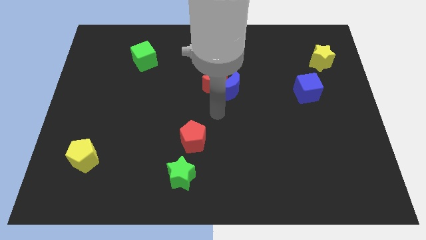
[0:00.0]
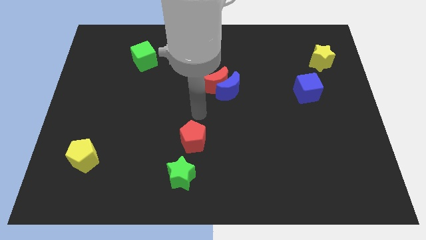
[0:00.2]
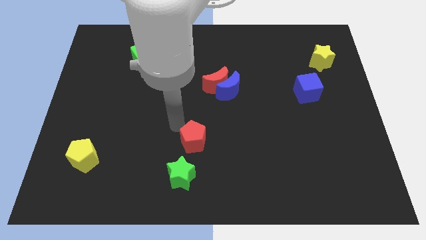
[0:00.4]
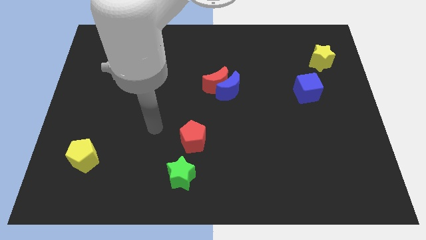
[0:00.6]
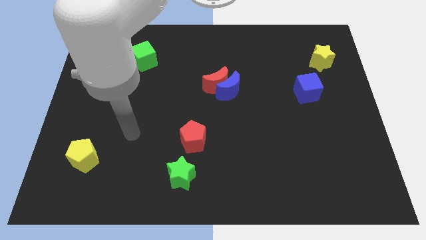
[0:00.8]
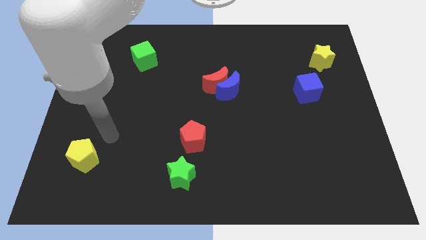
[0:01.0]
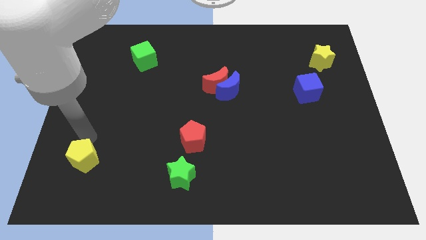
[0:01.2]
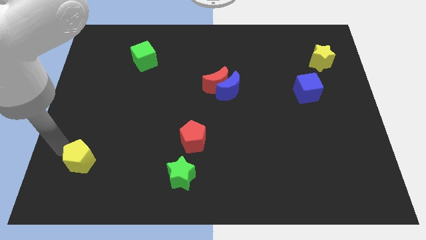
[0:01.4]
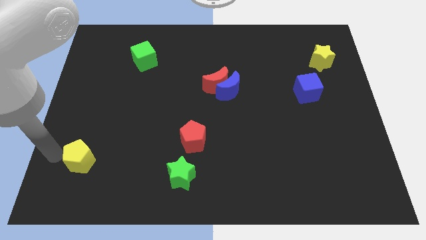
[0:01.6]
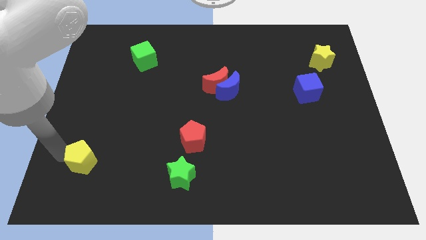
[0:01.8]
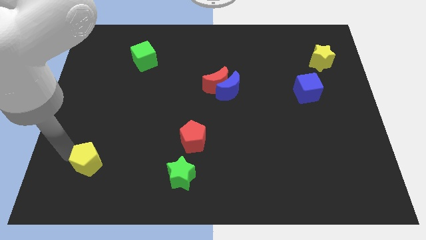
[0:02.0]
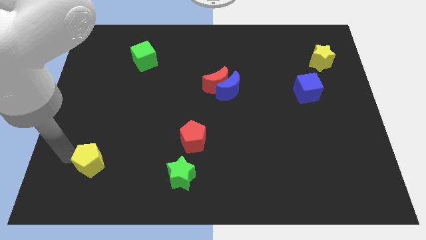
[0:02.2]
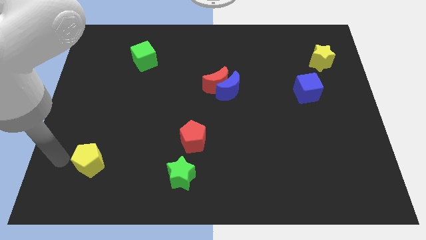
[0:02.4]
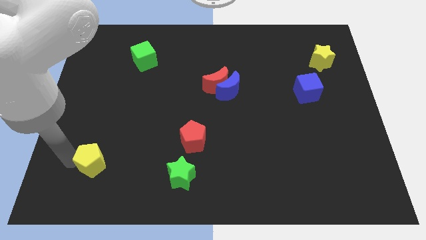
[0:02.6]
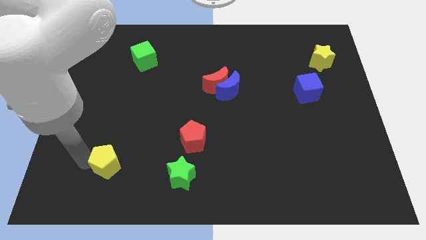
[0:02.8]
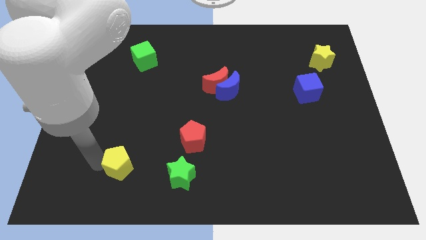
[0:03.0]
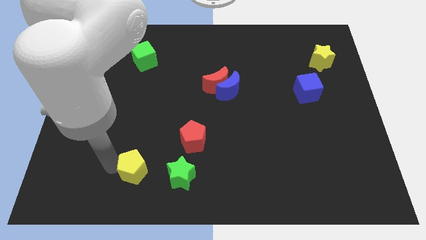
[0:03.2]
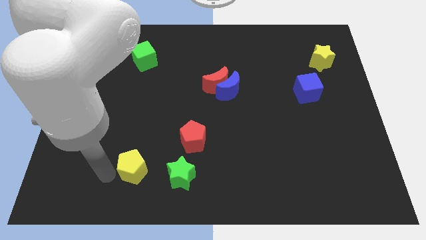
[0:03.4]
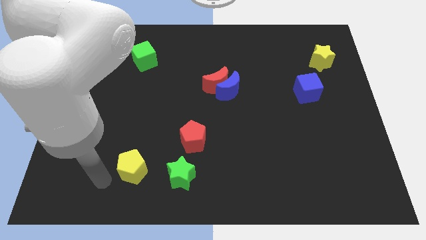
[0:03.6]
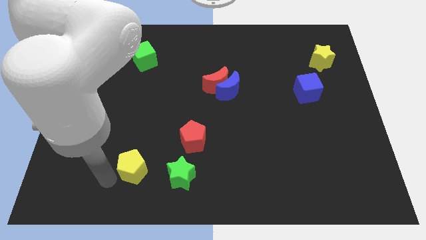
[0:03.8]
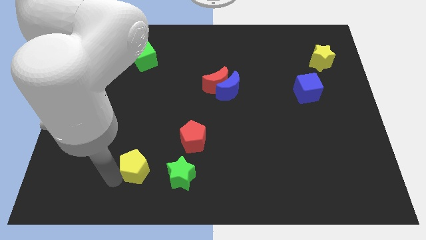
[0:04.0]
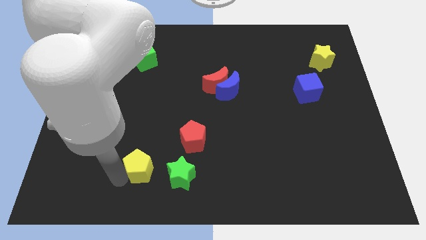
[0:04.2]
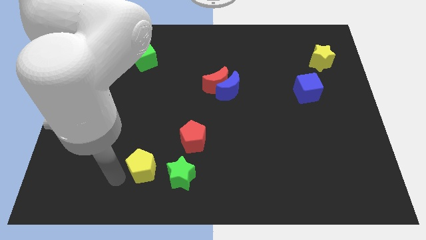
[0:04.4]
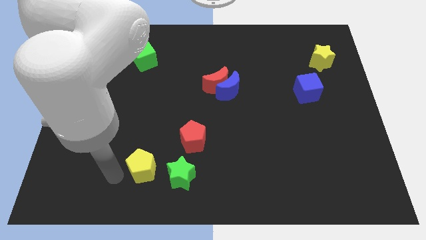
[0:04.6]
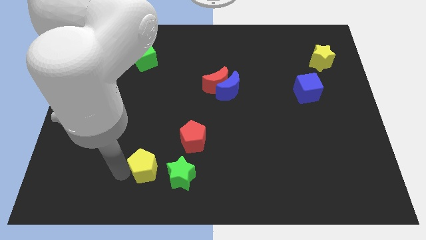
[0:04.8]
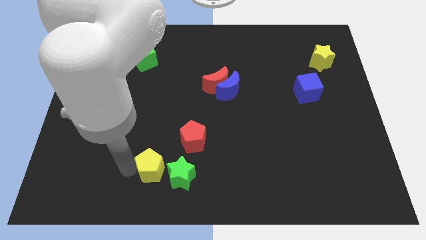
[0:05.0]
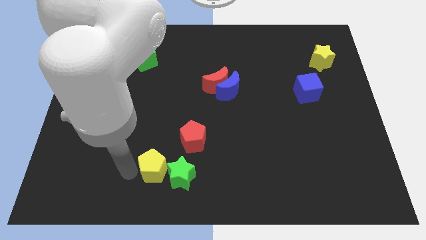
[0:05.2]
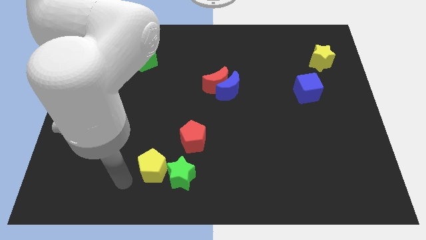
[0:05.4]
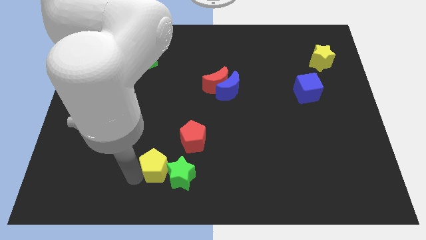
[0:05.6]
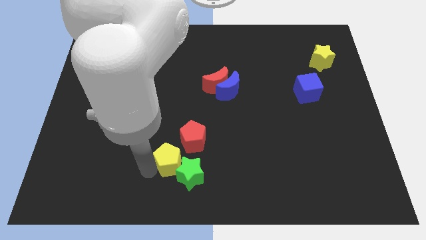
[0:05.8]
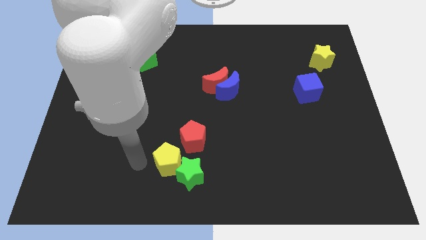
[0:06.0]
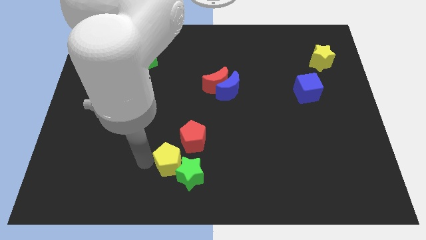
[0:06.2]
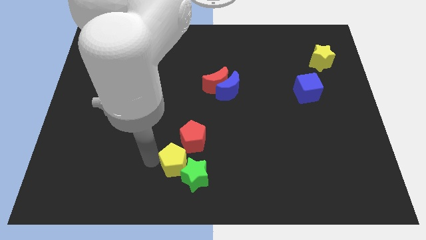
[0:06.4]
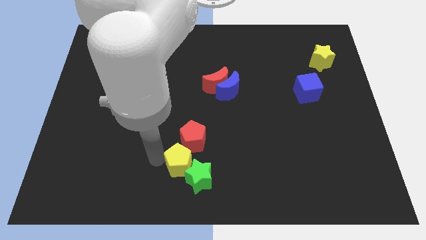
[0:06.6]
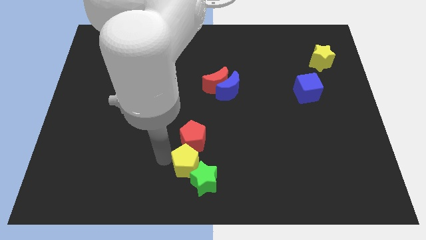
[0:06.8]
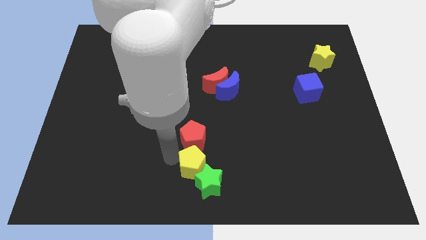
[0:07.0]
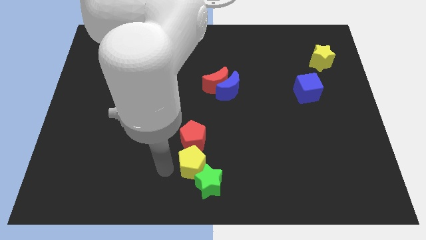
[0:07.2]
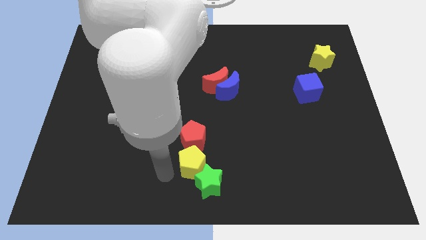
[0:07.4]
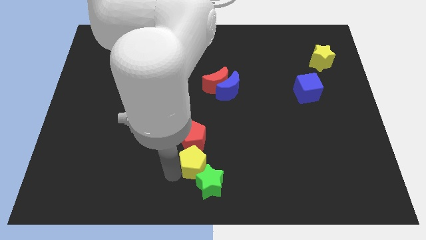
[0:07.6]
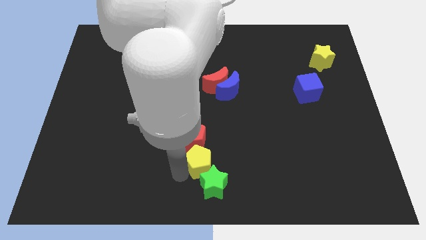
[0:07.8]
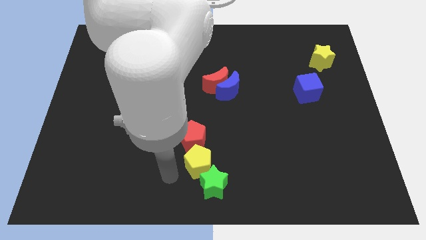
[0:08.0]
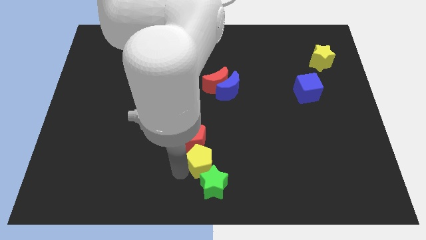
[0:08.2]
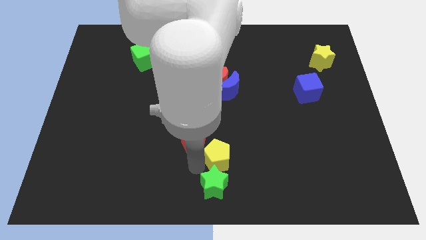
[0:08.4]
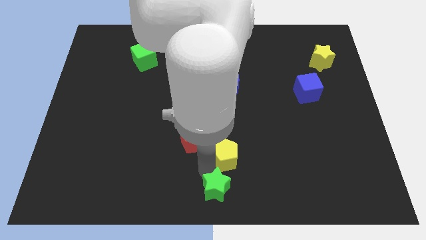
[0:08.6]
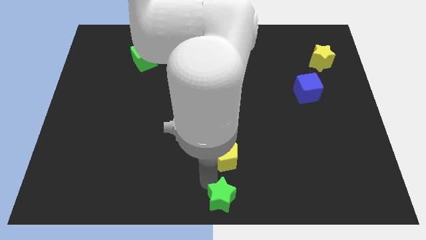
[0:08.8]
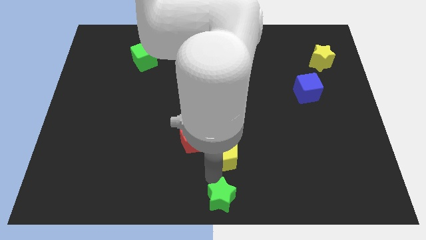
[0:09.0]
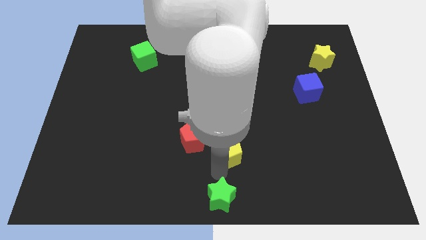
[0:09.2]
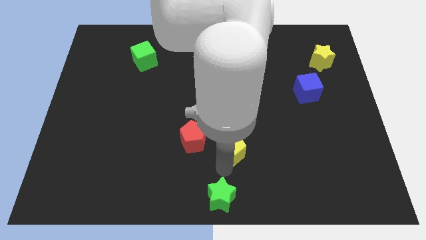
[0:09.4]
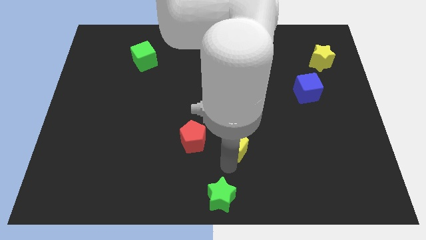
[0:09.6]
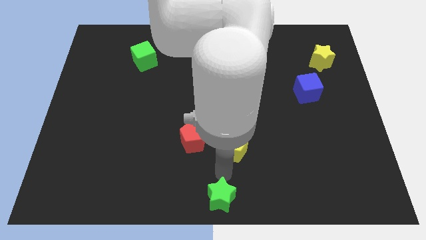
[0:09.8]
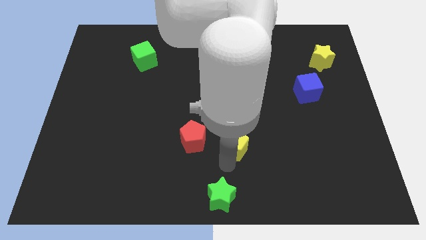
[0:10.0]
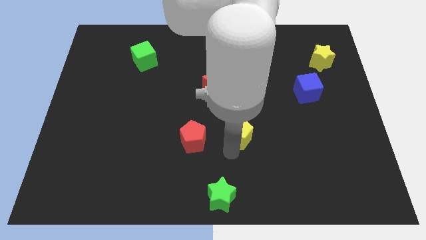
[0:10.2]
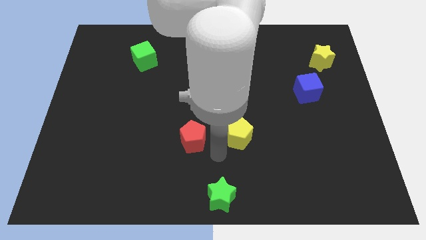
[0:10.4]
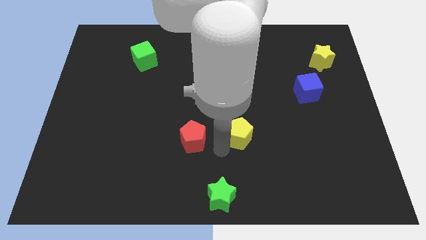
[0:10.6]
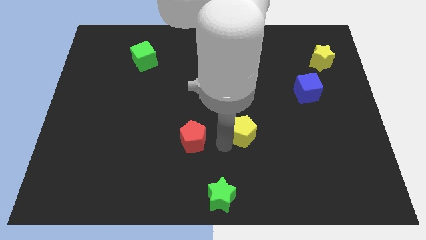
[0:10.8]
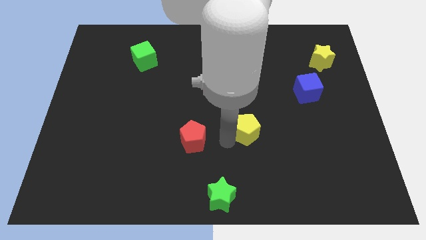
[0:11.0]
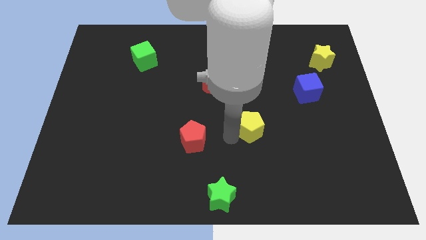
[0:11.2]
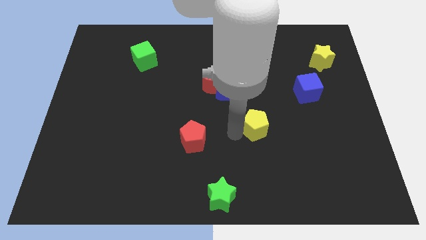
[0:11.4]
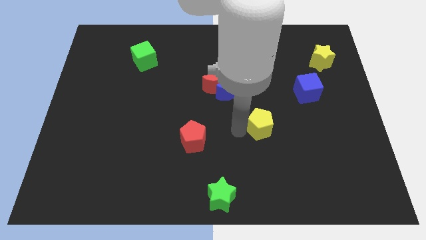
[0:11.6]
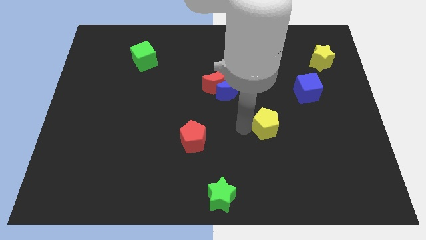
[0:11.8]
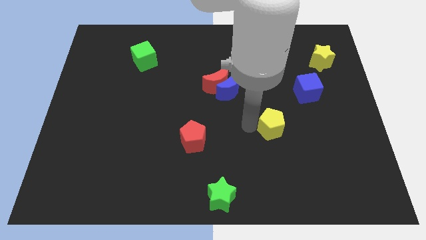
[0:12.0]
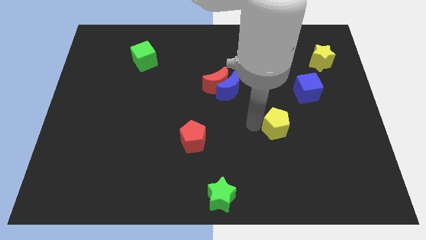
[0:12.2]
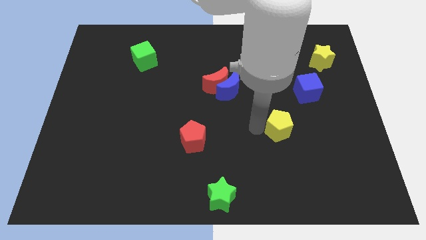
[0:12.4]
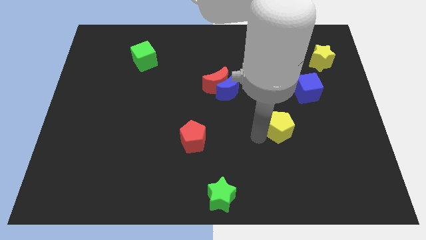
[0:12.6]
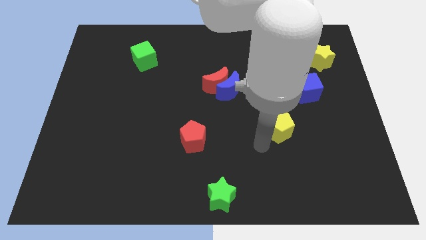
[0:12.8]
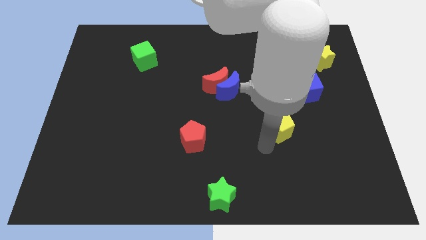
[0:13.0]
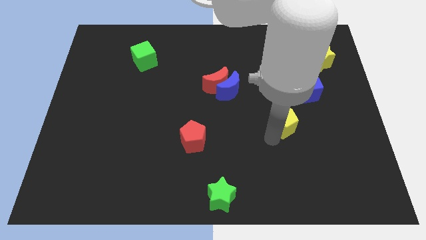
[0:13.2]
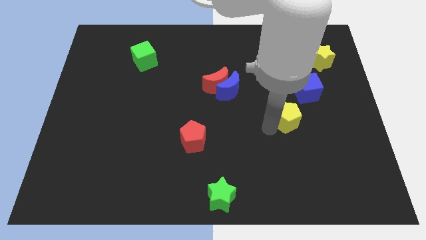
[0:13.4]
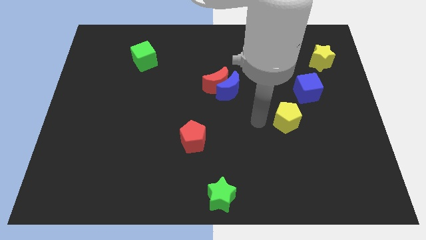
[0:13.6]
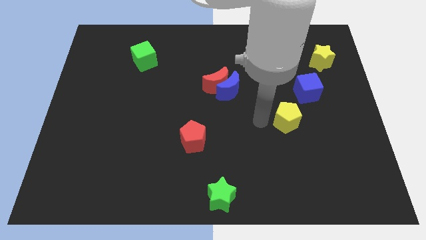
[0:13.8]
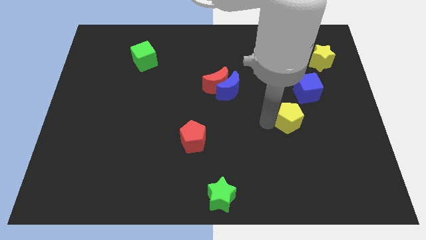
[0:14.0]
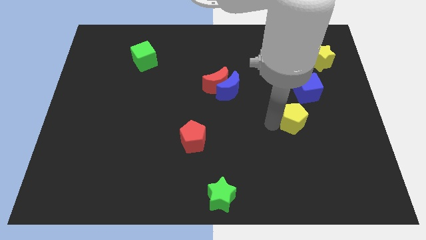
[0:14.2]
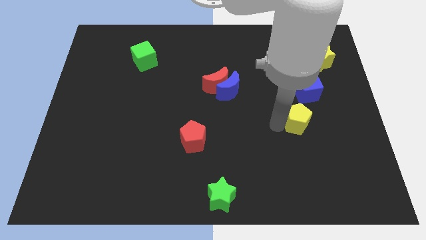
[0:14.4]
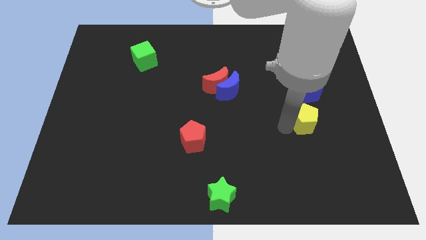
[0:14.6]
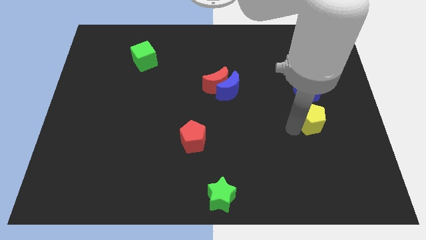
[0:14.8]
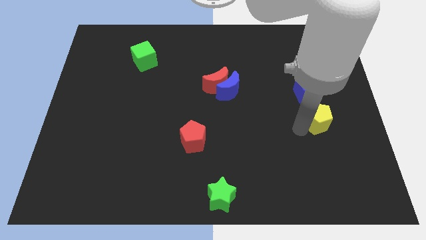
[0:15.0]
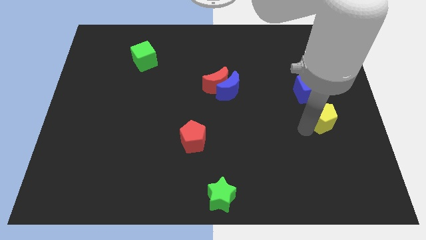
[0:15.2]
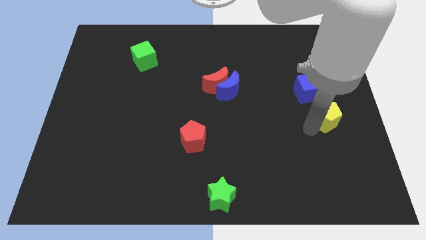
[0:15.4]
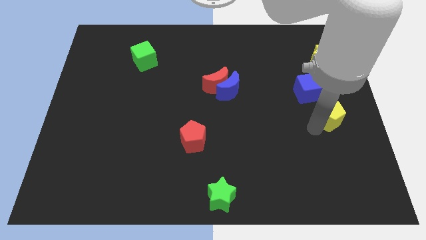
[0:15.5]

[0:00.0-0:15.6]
slide the yellow pentagon to the right side
